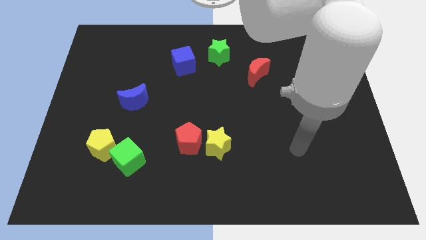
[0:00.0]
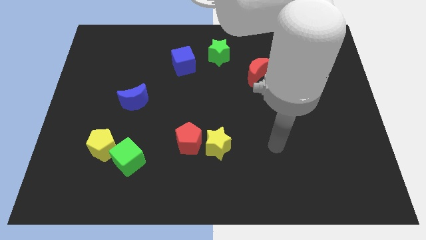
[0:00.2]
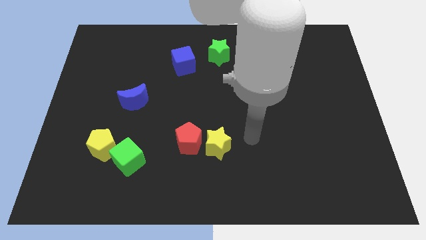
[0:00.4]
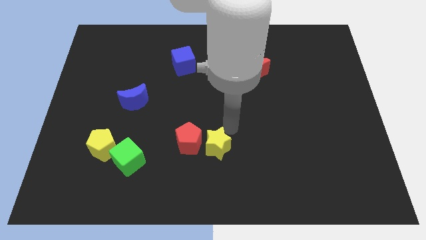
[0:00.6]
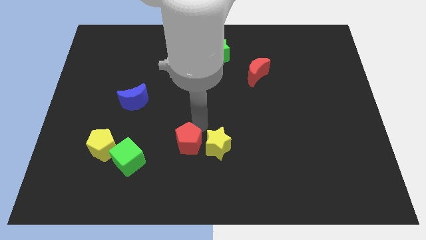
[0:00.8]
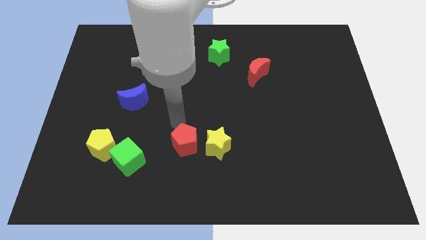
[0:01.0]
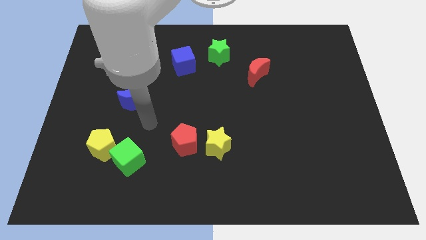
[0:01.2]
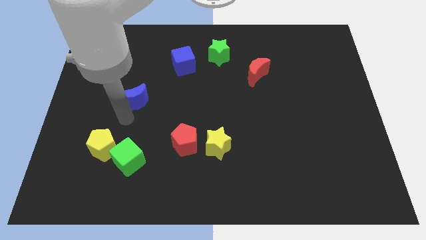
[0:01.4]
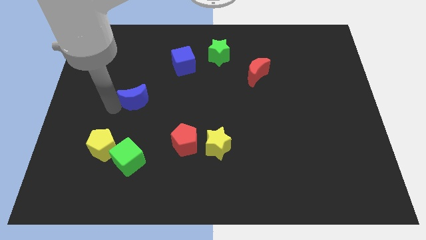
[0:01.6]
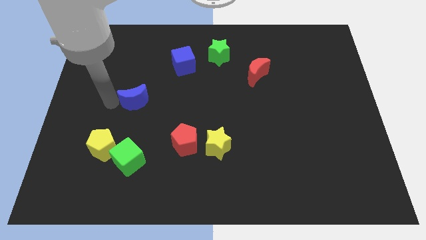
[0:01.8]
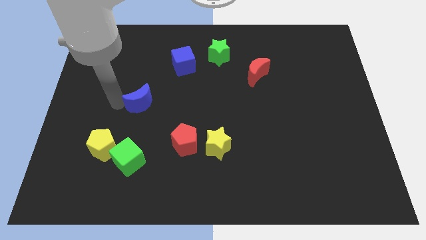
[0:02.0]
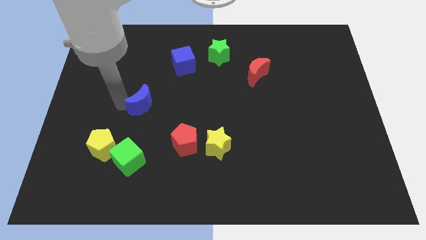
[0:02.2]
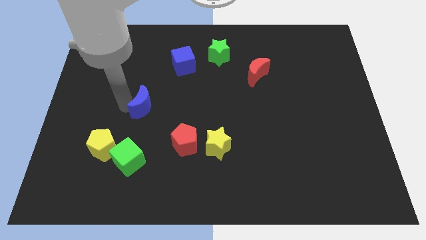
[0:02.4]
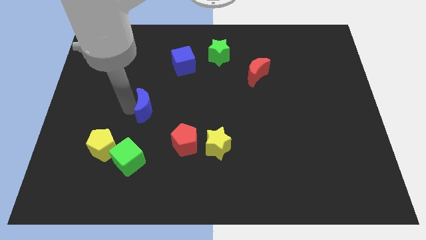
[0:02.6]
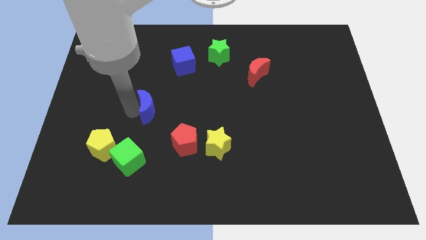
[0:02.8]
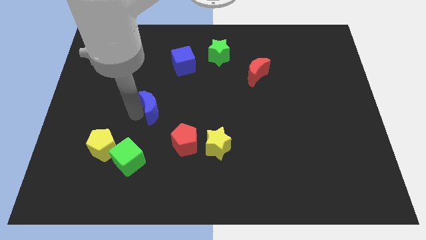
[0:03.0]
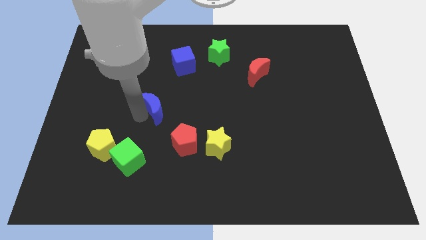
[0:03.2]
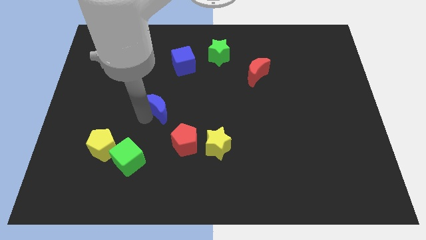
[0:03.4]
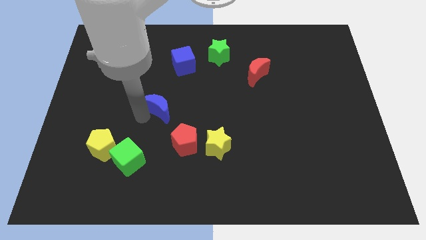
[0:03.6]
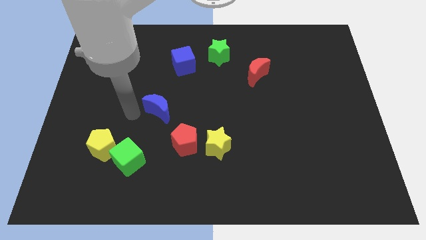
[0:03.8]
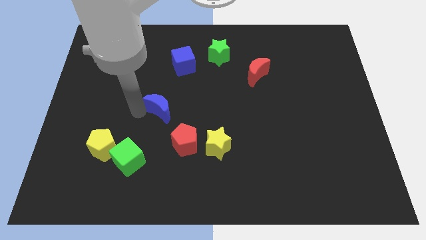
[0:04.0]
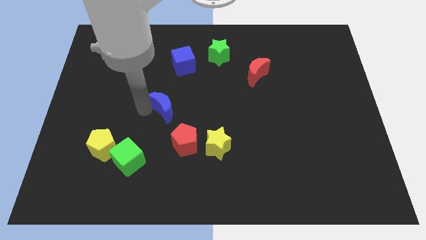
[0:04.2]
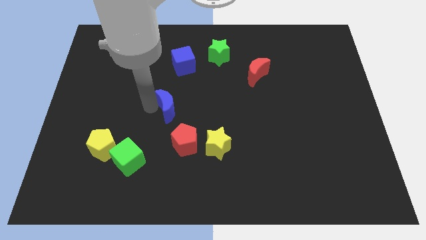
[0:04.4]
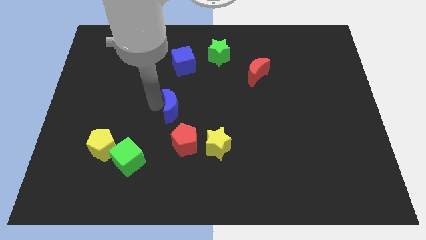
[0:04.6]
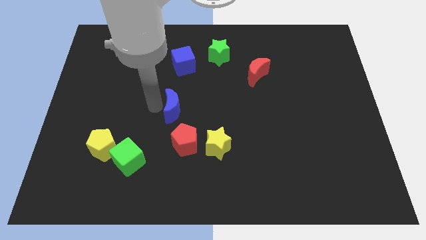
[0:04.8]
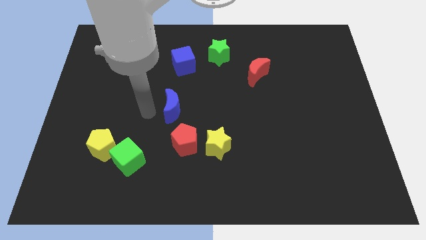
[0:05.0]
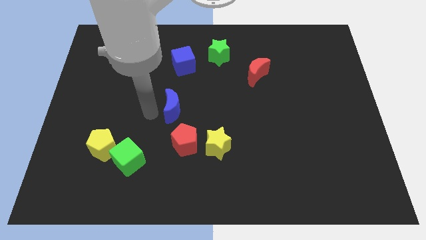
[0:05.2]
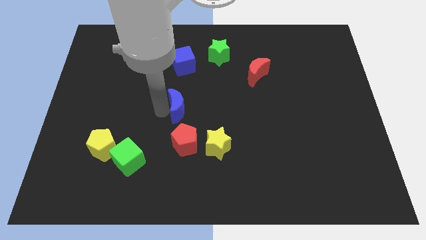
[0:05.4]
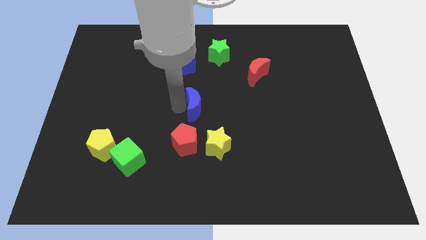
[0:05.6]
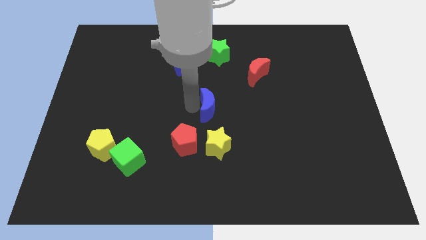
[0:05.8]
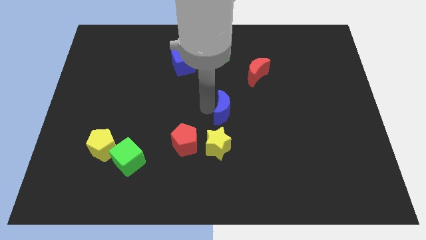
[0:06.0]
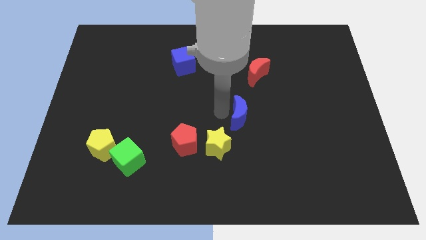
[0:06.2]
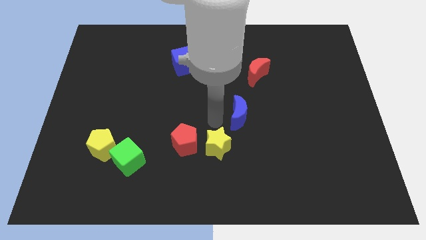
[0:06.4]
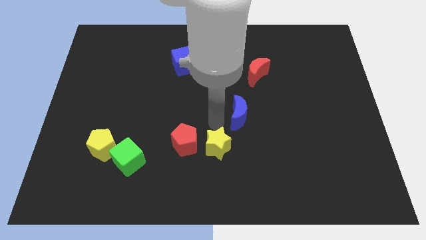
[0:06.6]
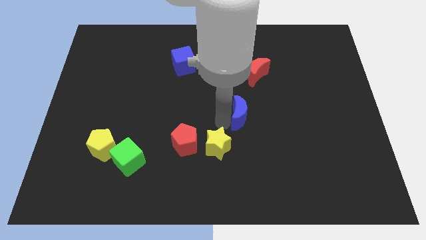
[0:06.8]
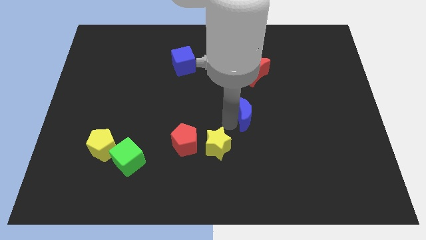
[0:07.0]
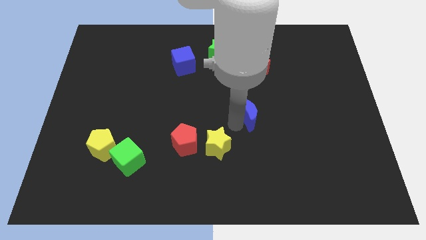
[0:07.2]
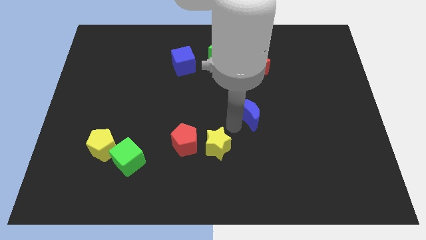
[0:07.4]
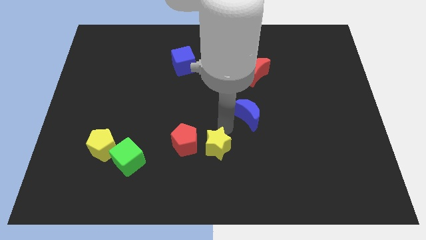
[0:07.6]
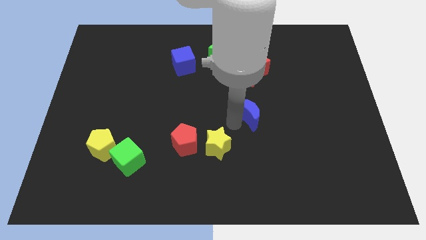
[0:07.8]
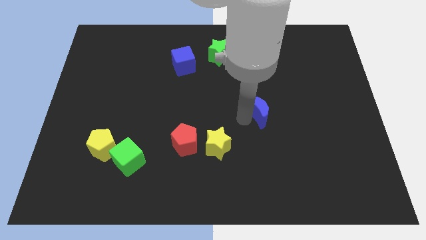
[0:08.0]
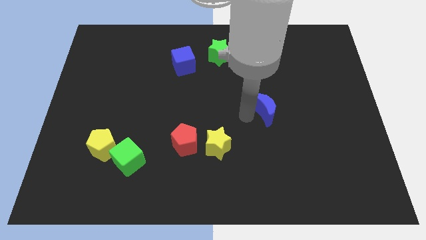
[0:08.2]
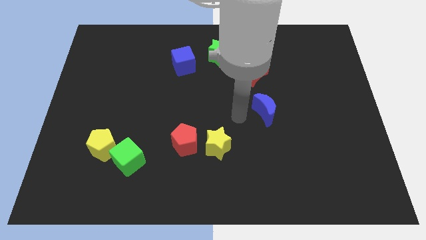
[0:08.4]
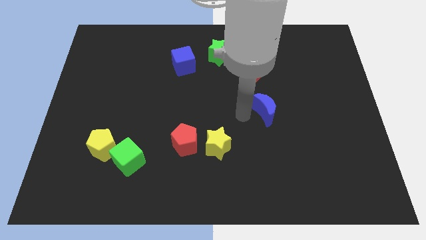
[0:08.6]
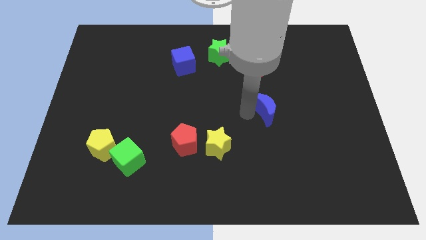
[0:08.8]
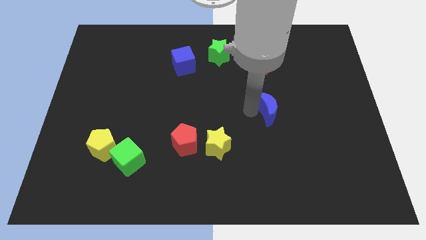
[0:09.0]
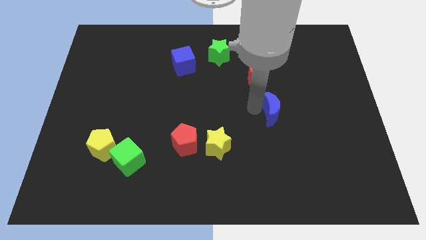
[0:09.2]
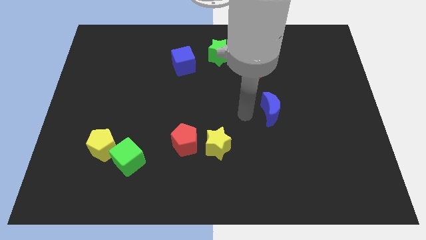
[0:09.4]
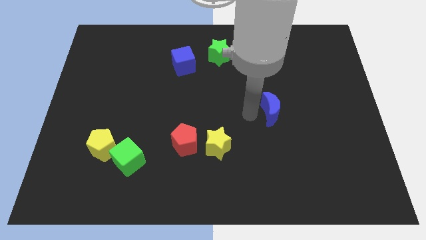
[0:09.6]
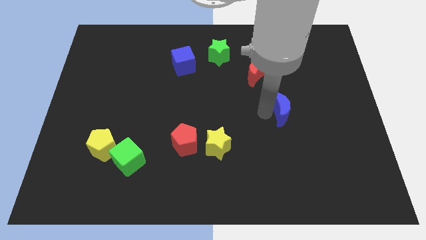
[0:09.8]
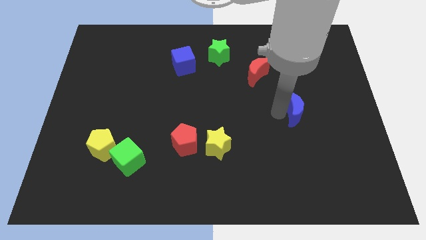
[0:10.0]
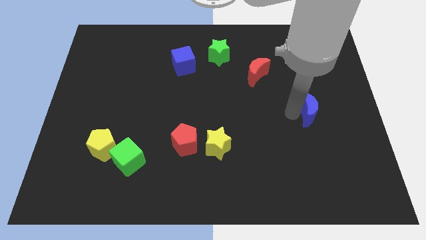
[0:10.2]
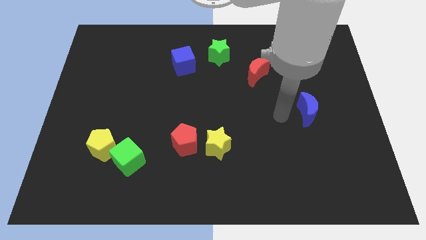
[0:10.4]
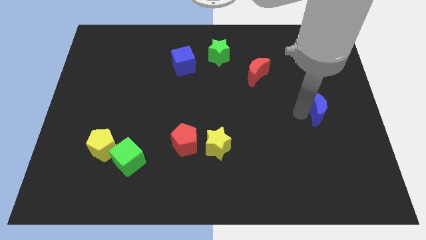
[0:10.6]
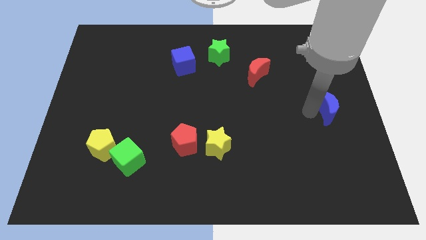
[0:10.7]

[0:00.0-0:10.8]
put the blue moon to the right side

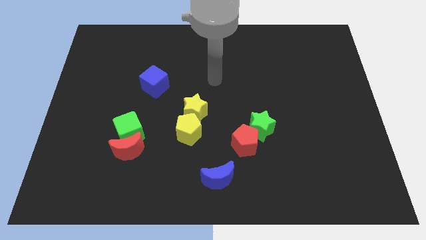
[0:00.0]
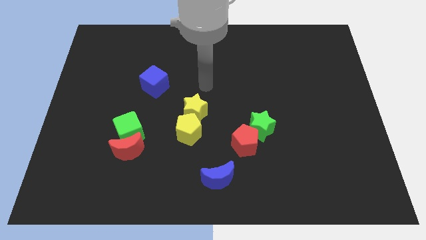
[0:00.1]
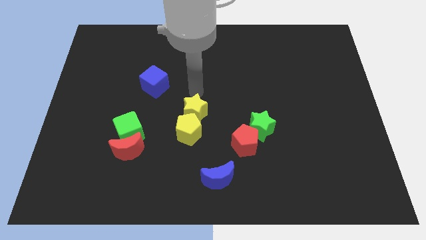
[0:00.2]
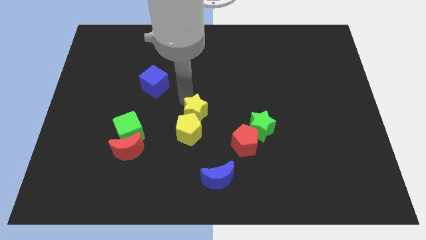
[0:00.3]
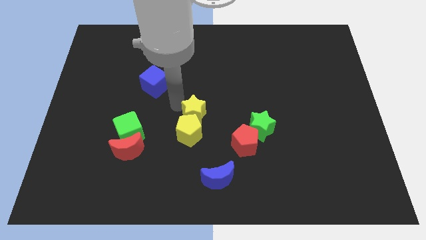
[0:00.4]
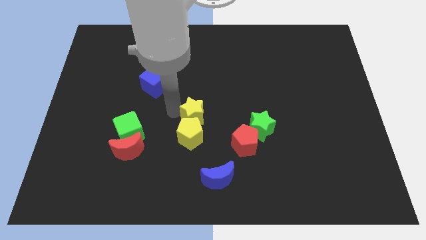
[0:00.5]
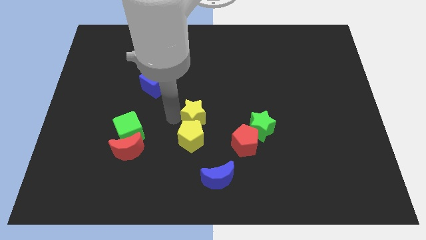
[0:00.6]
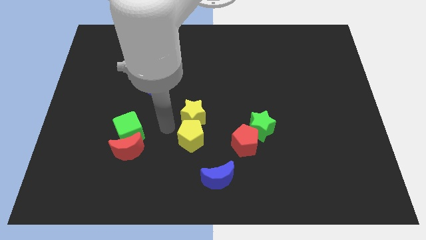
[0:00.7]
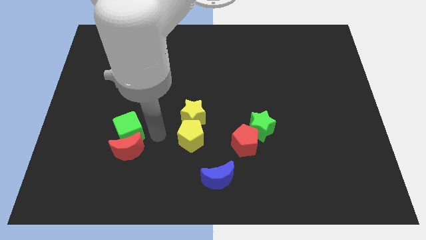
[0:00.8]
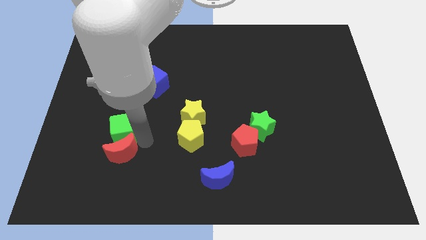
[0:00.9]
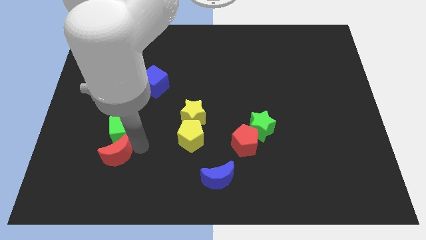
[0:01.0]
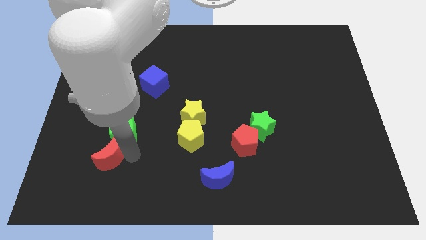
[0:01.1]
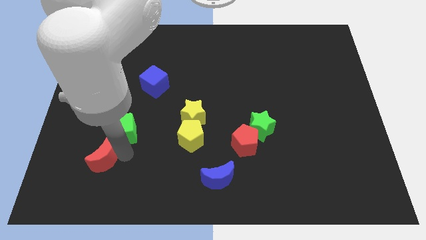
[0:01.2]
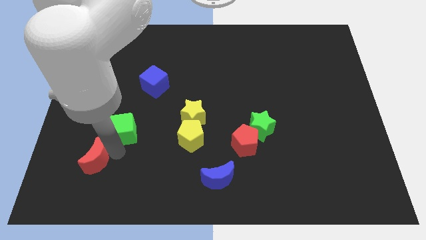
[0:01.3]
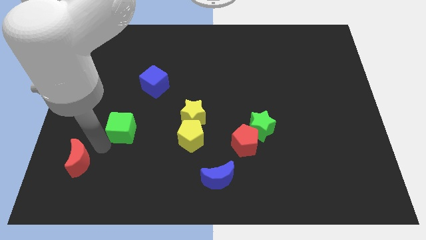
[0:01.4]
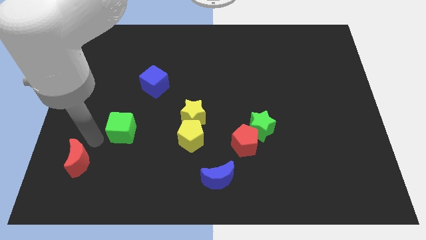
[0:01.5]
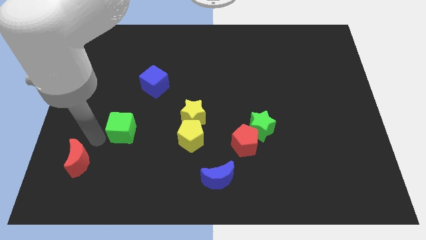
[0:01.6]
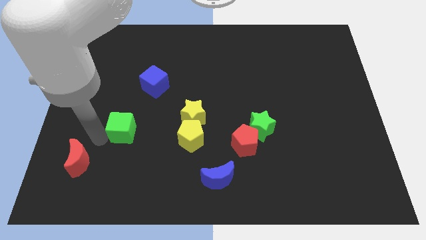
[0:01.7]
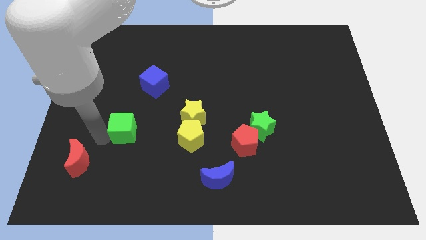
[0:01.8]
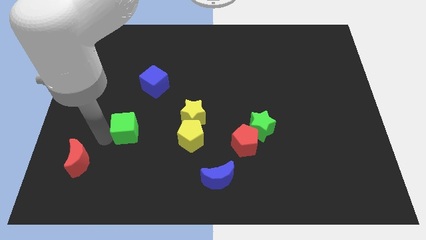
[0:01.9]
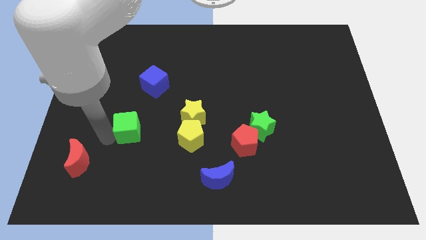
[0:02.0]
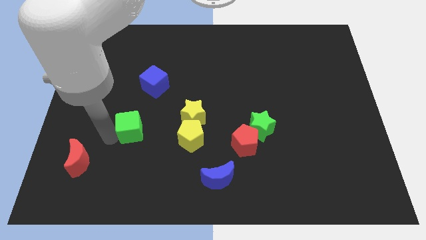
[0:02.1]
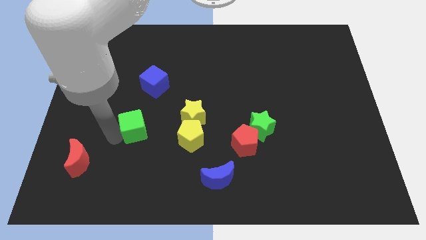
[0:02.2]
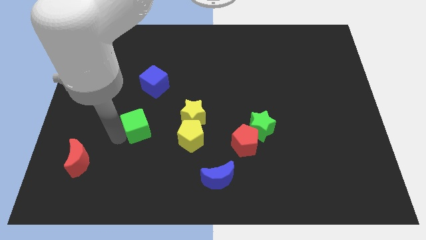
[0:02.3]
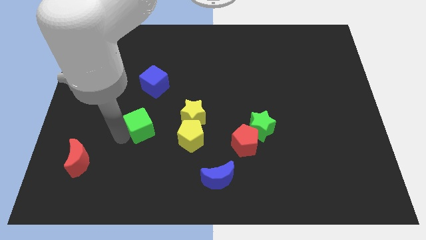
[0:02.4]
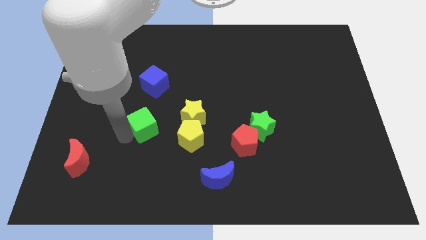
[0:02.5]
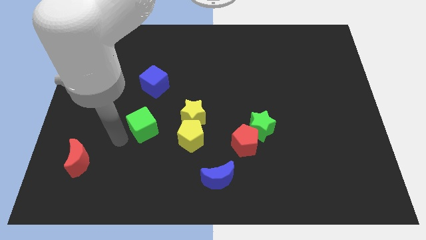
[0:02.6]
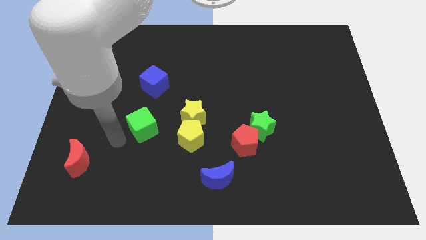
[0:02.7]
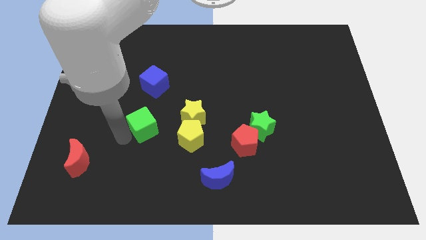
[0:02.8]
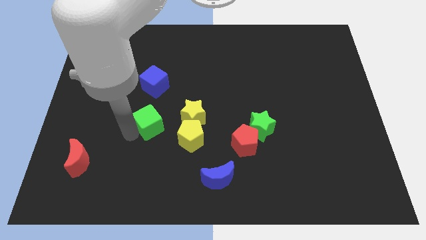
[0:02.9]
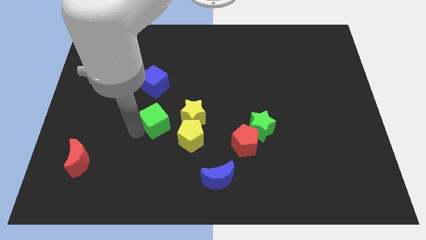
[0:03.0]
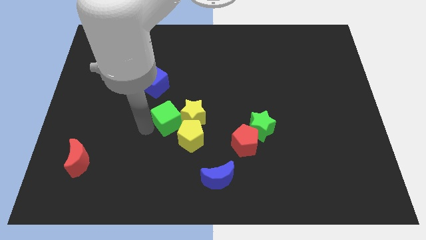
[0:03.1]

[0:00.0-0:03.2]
put the green cube to the center of the board
